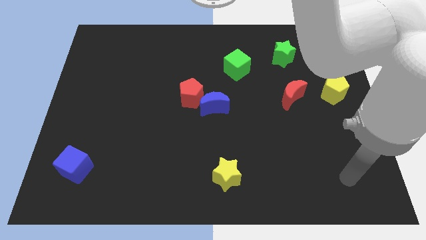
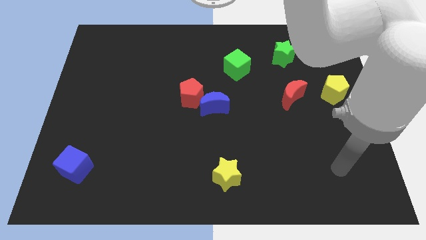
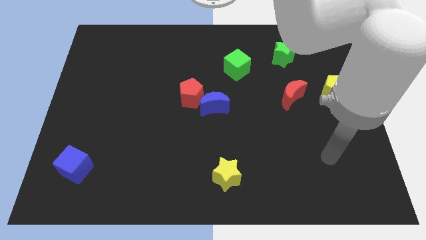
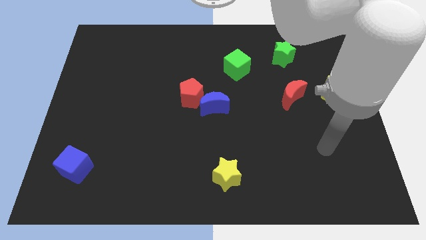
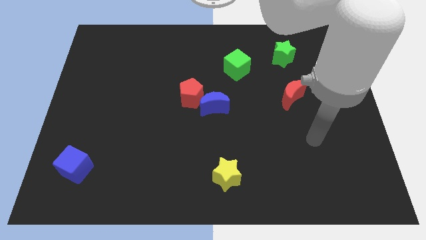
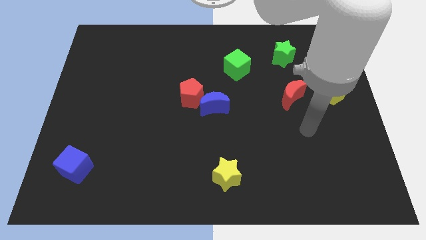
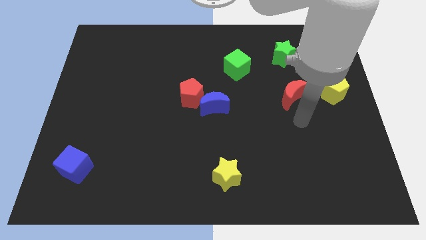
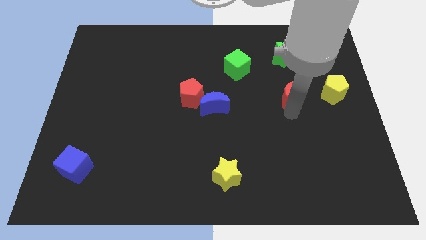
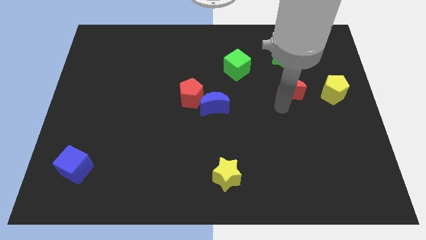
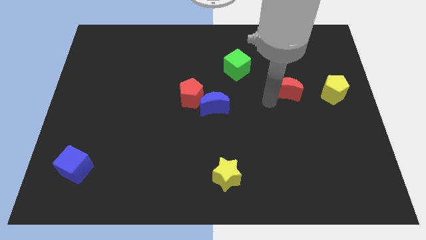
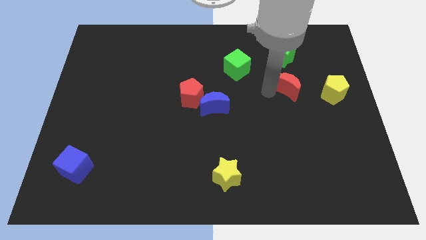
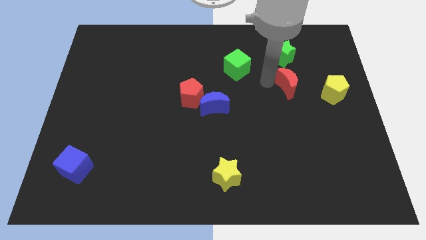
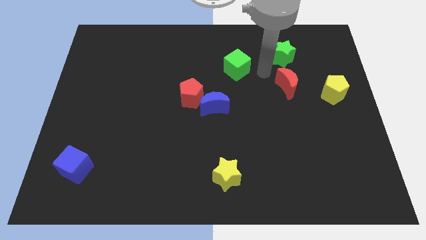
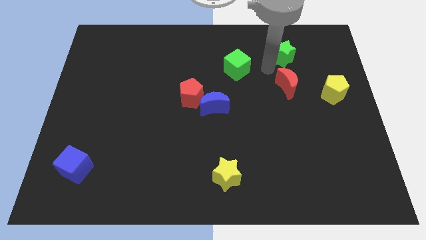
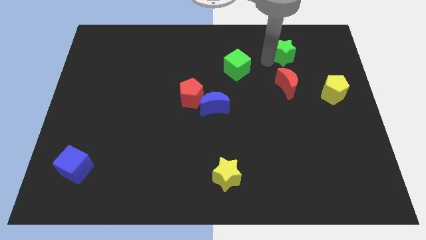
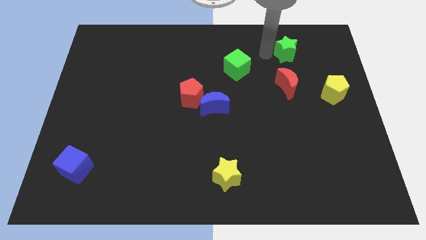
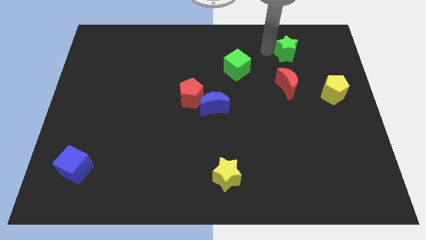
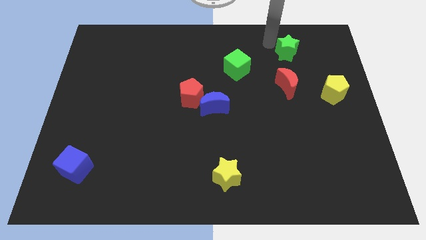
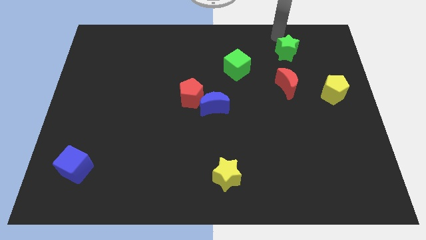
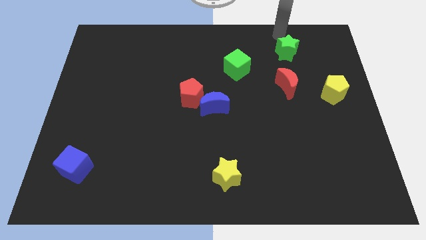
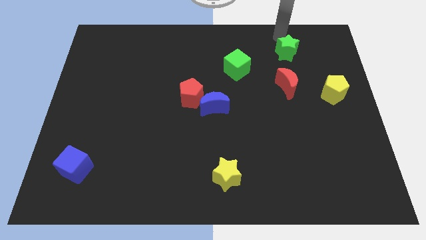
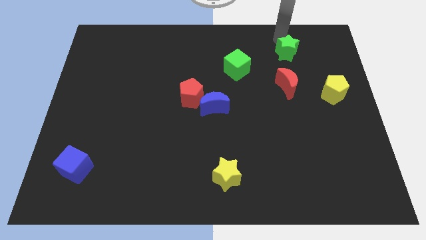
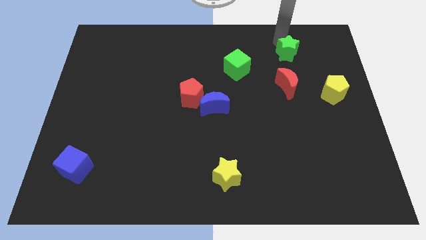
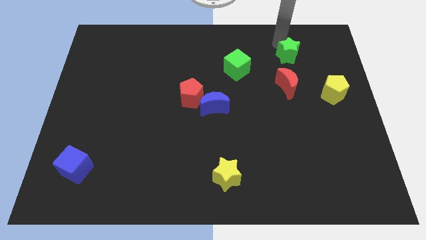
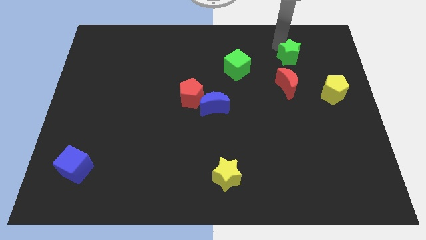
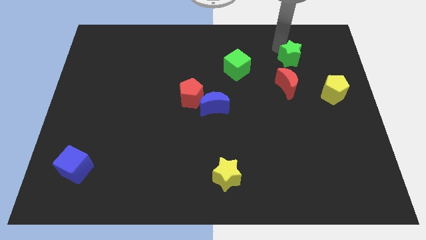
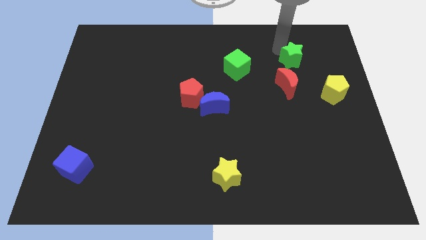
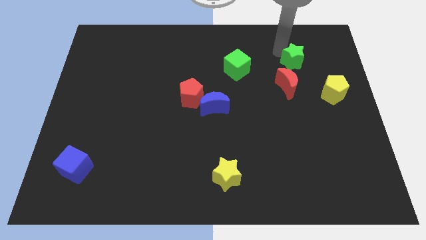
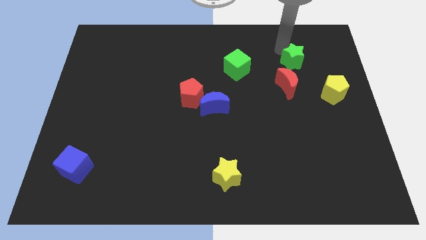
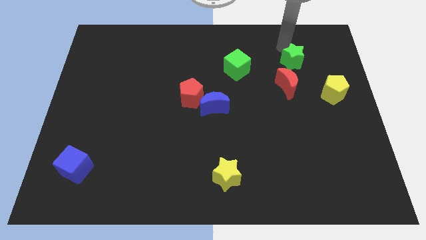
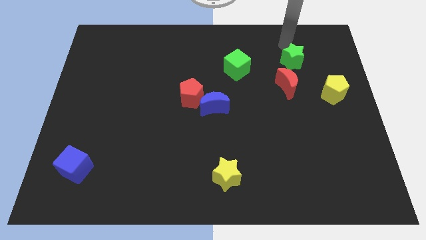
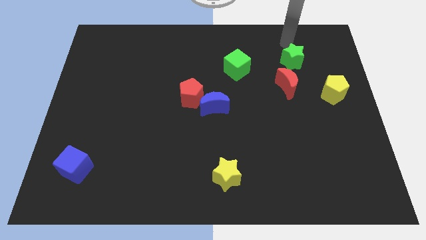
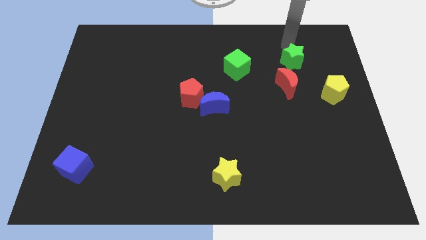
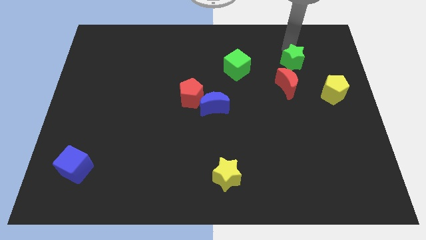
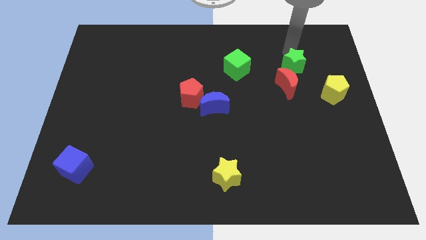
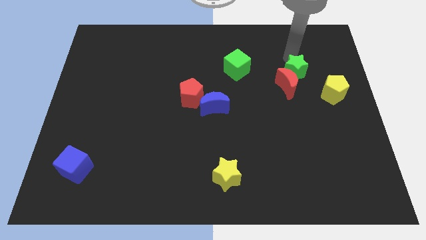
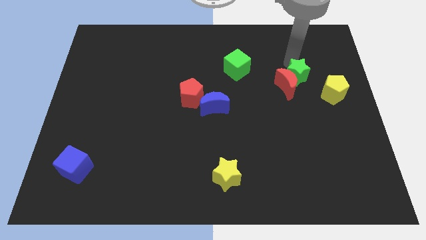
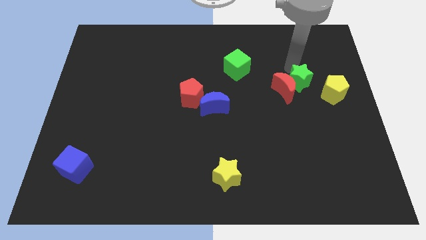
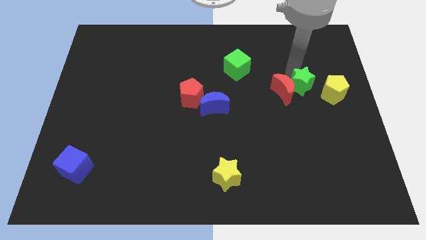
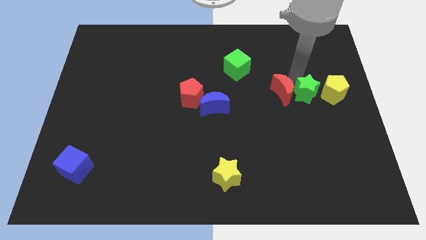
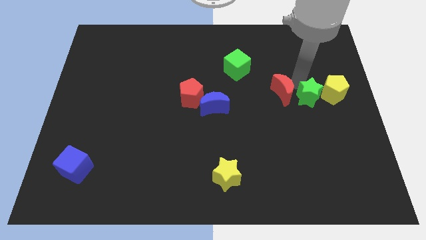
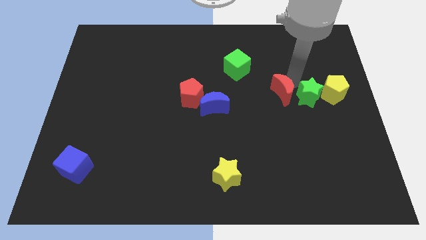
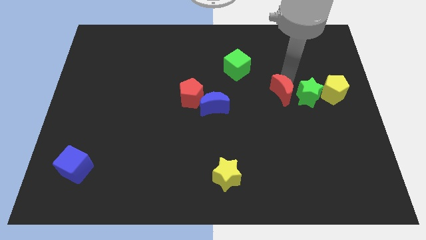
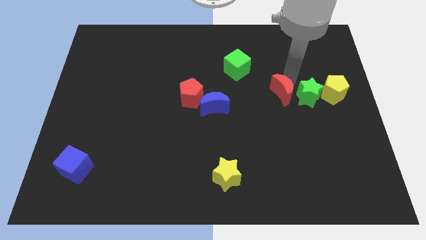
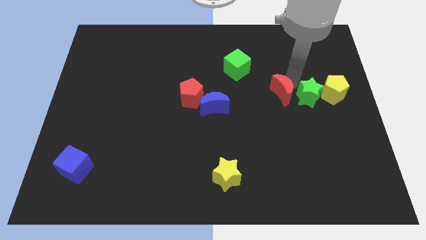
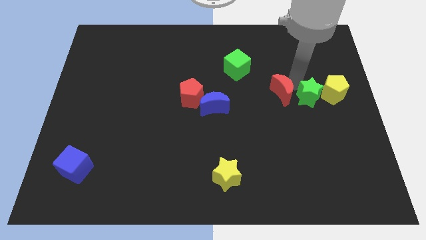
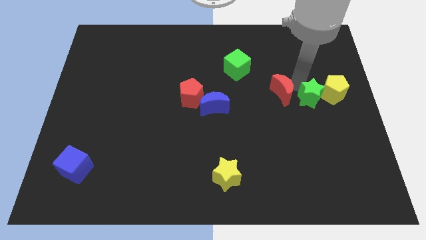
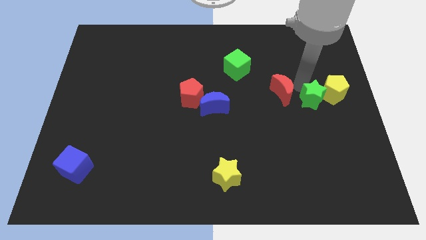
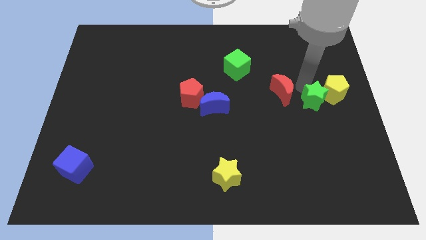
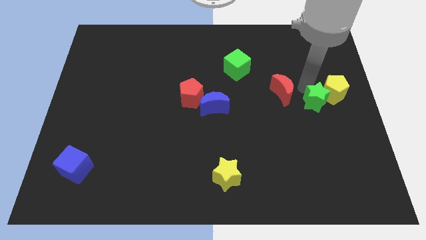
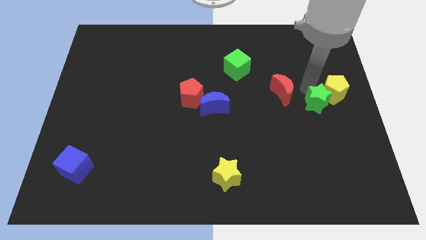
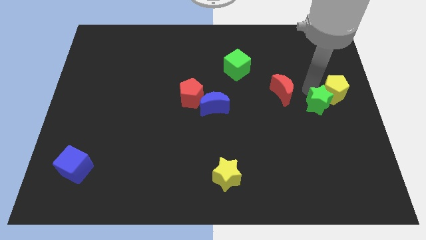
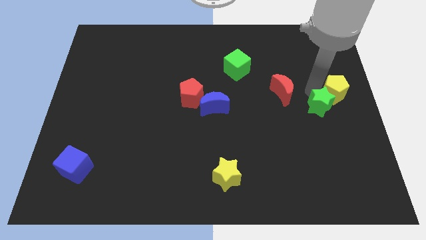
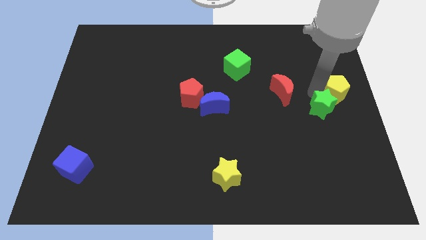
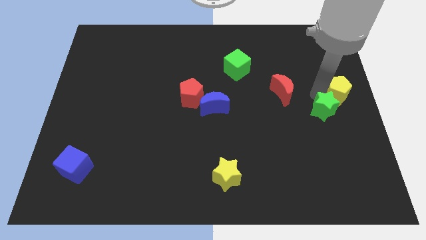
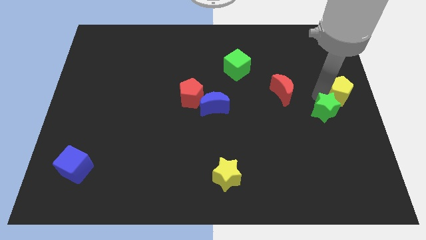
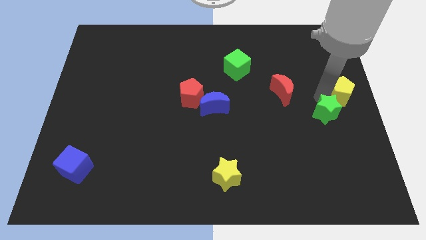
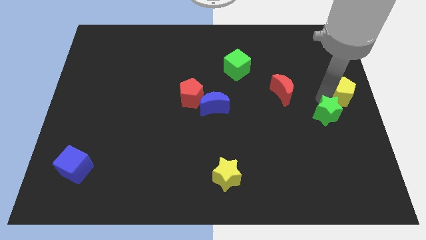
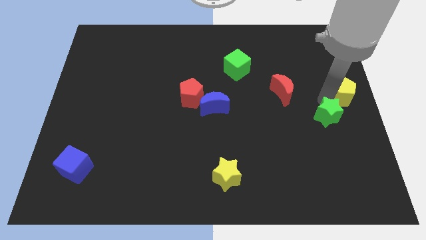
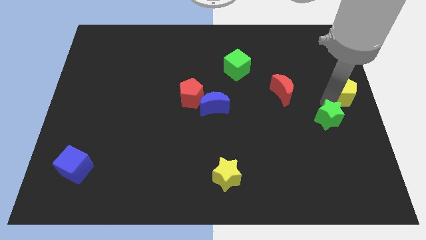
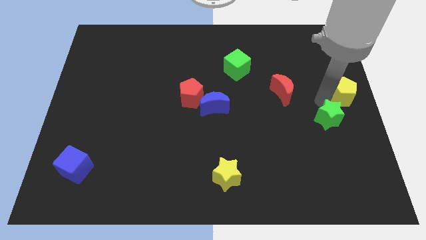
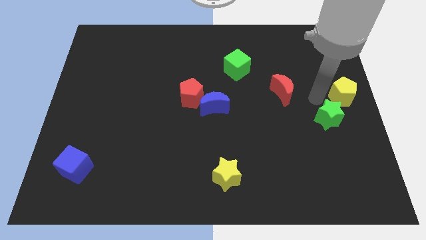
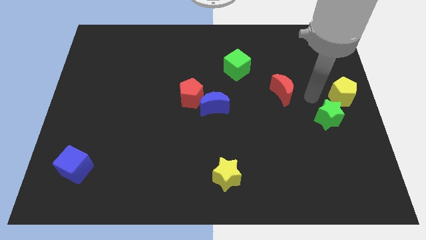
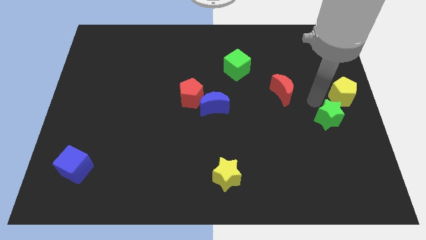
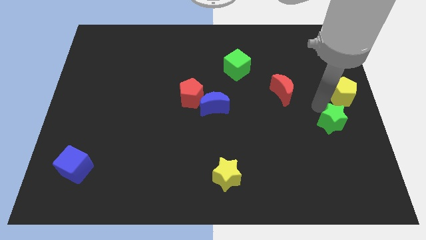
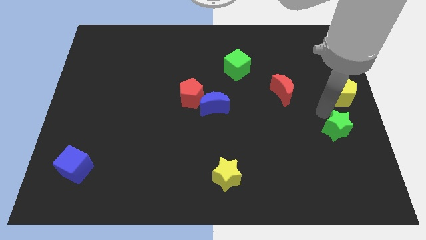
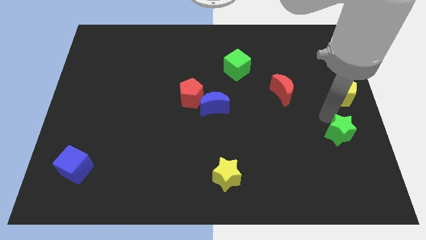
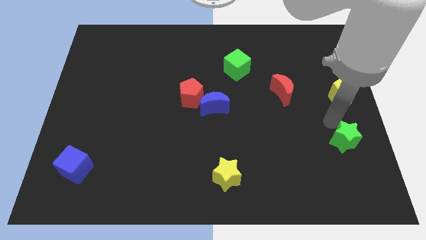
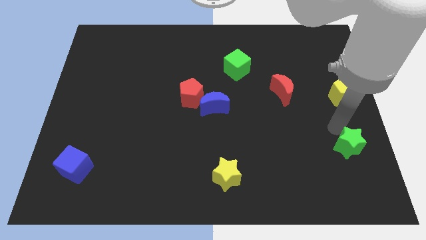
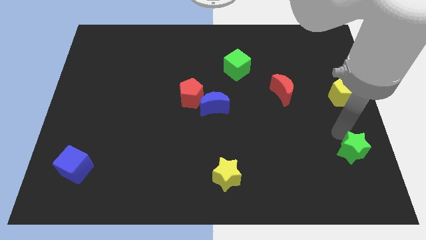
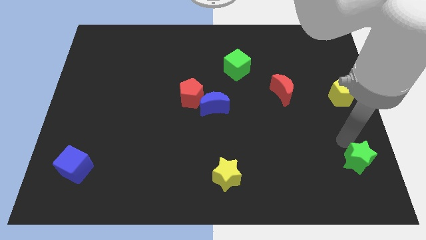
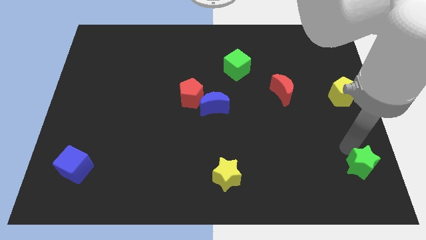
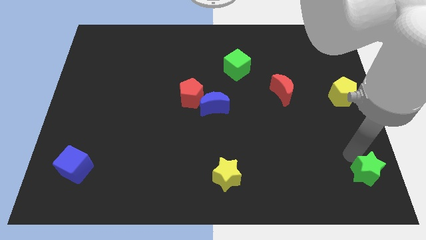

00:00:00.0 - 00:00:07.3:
slide the green star to the bottom right of the board
